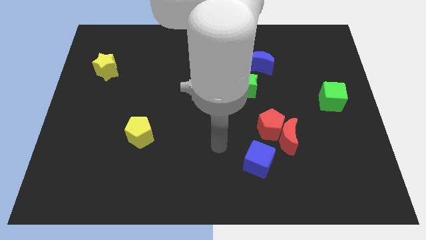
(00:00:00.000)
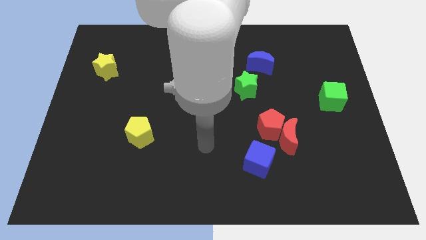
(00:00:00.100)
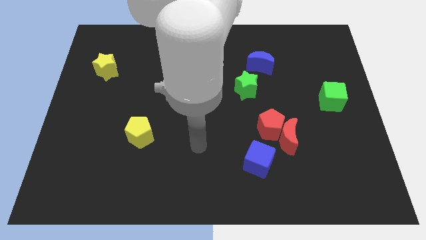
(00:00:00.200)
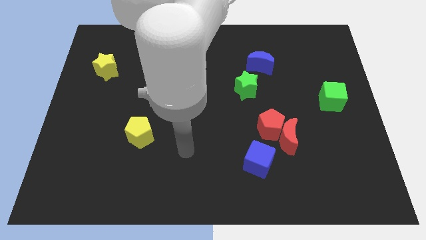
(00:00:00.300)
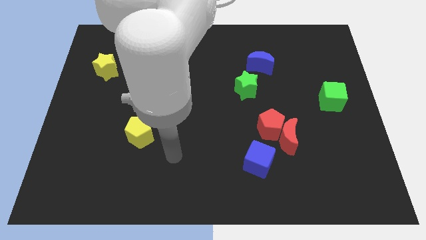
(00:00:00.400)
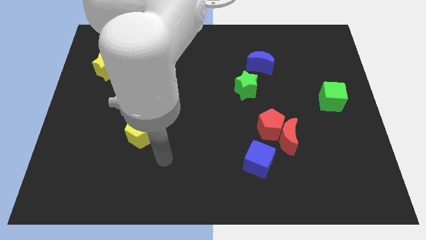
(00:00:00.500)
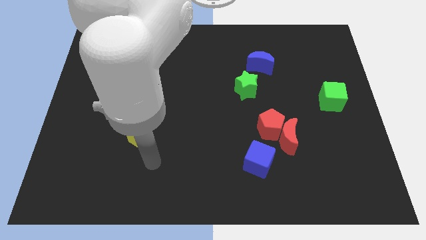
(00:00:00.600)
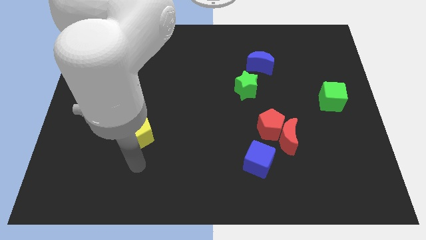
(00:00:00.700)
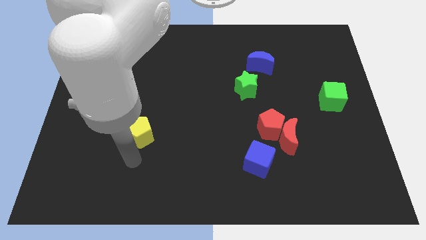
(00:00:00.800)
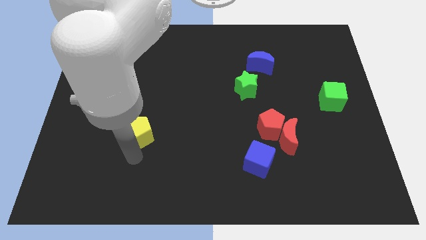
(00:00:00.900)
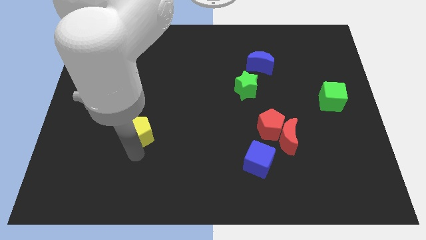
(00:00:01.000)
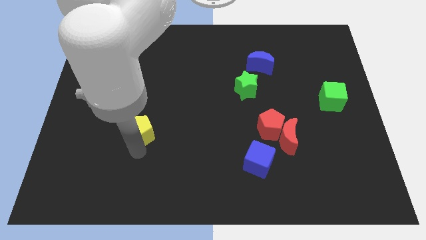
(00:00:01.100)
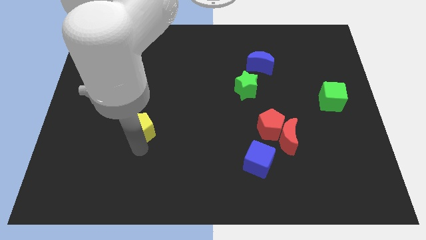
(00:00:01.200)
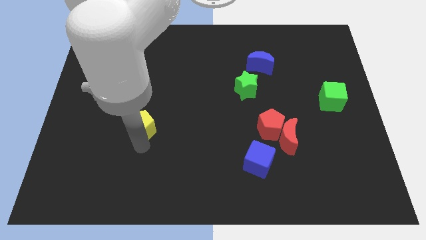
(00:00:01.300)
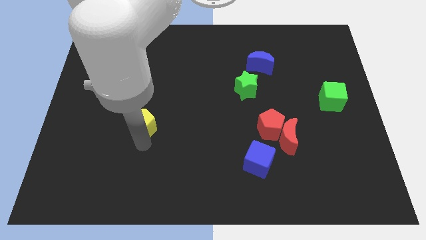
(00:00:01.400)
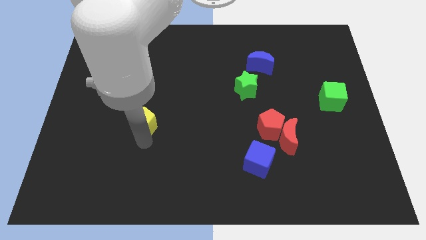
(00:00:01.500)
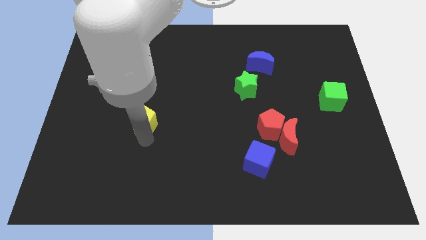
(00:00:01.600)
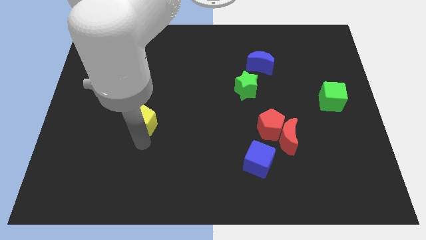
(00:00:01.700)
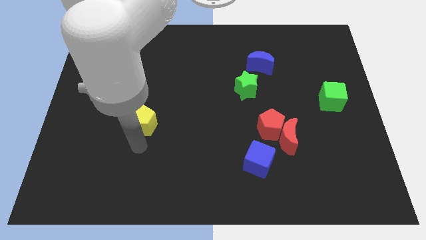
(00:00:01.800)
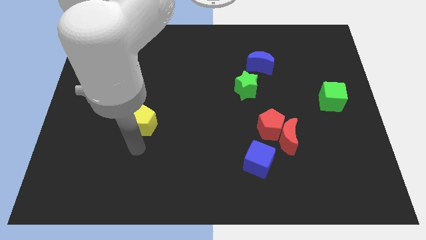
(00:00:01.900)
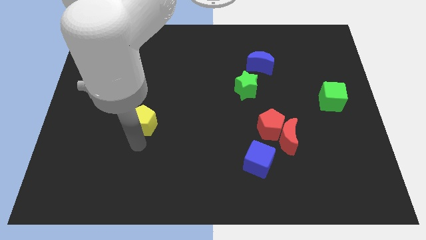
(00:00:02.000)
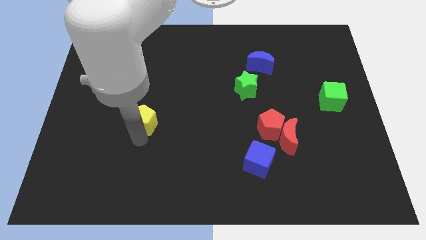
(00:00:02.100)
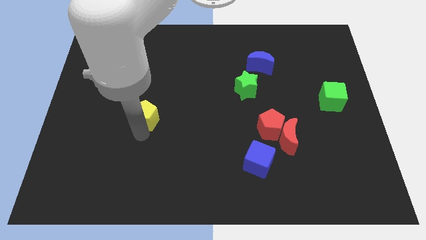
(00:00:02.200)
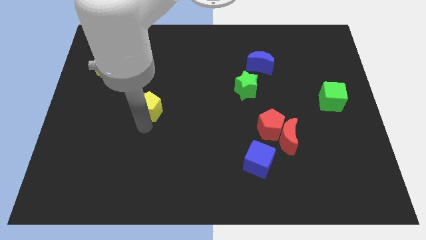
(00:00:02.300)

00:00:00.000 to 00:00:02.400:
push the yellow pentagon a little bit upwards

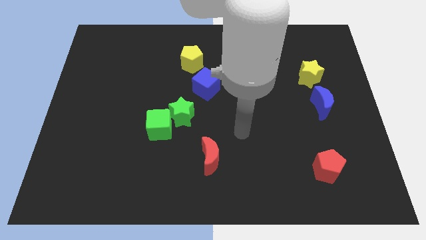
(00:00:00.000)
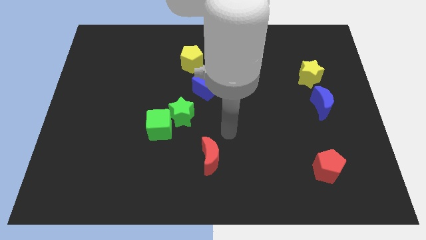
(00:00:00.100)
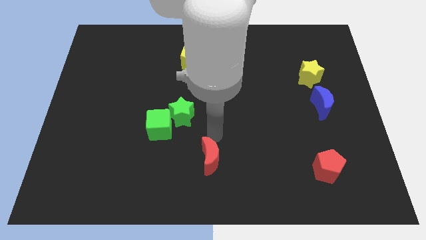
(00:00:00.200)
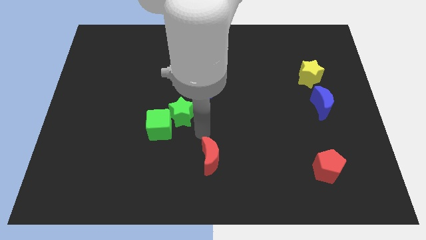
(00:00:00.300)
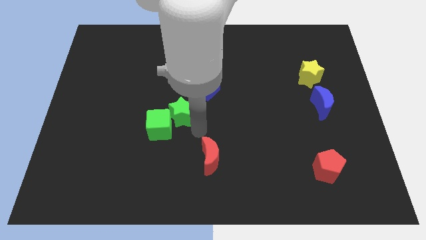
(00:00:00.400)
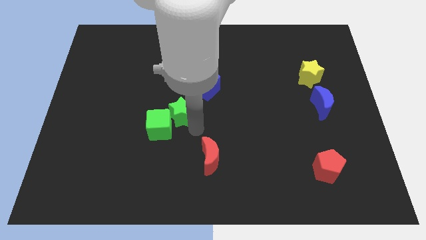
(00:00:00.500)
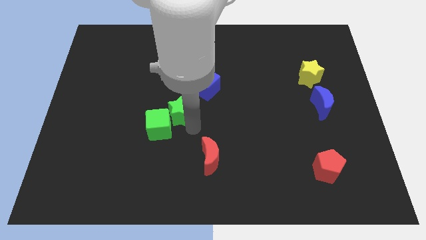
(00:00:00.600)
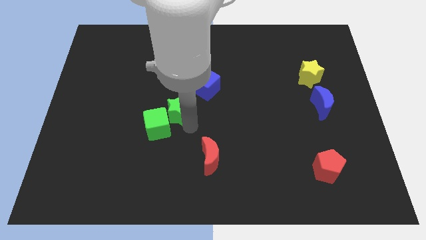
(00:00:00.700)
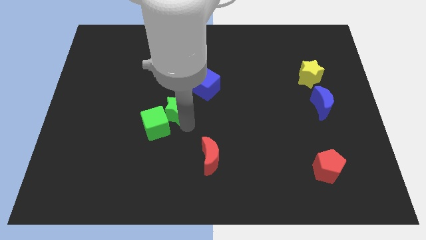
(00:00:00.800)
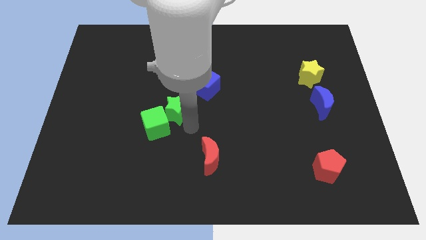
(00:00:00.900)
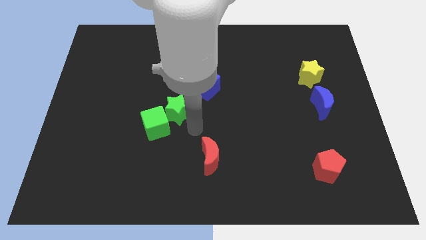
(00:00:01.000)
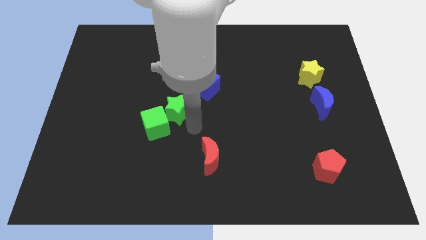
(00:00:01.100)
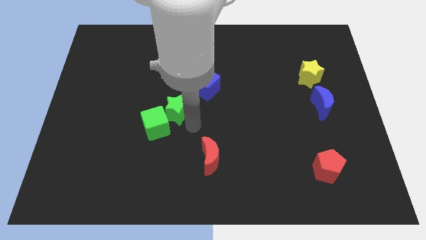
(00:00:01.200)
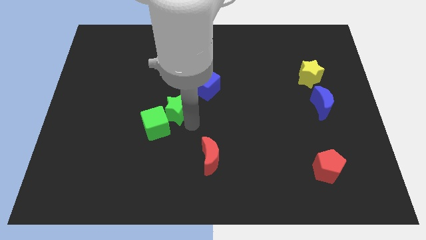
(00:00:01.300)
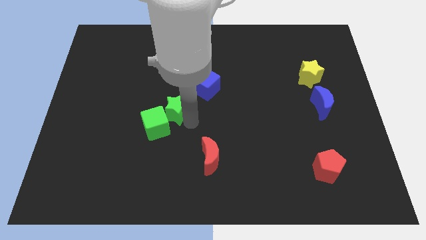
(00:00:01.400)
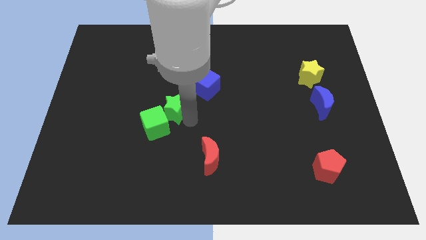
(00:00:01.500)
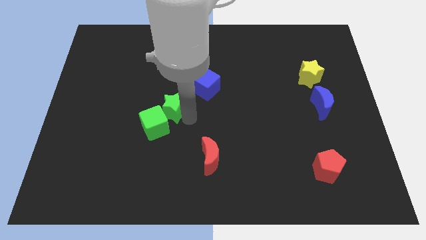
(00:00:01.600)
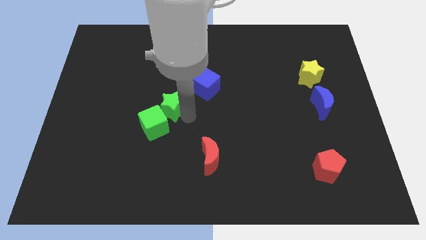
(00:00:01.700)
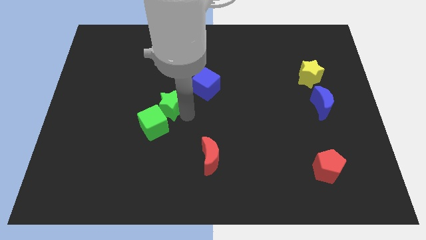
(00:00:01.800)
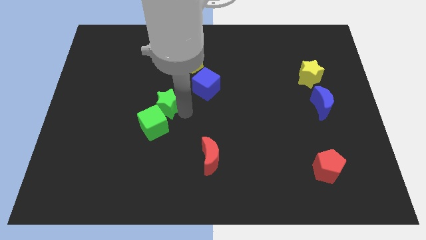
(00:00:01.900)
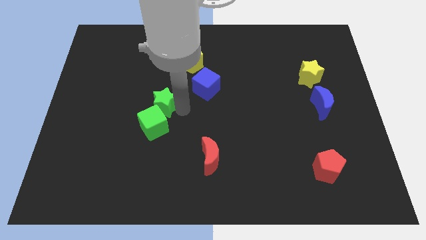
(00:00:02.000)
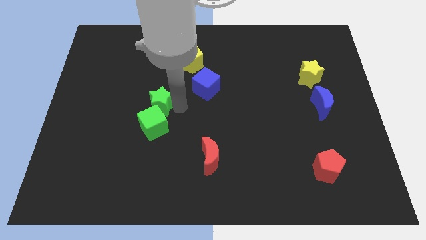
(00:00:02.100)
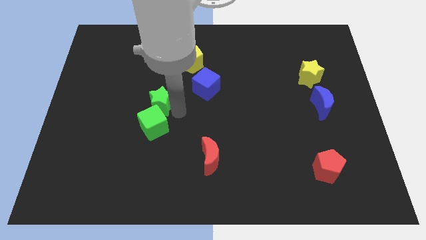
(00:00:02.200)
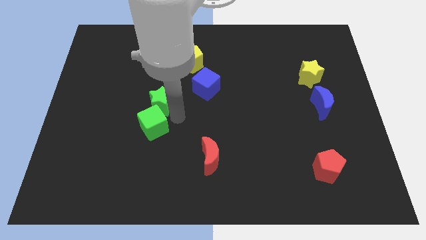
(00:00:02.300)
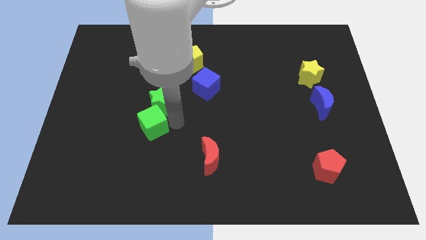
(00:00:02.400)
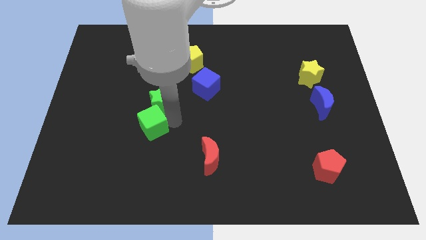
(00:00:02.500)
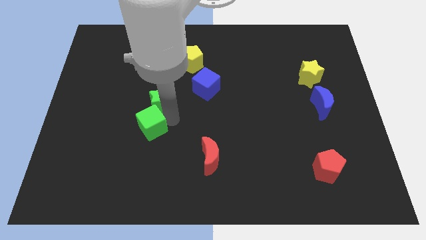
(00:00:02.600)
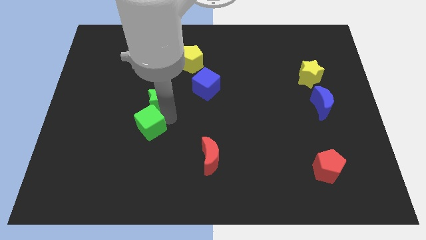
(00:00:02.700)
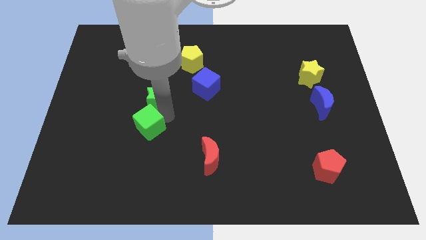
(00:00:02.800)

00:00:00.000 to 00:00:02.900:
move the green star slightly upwards and left diagonally

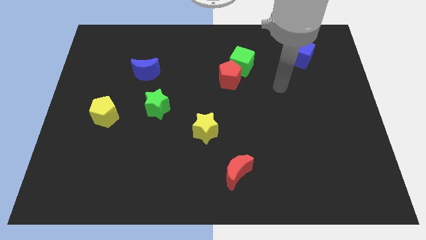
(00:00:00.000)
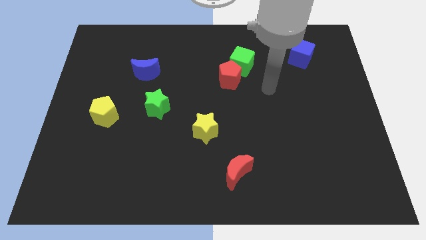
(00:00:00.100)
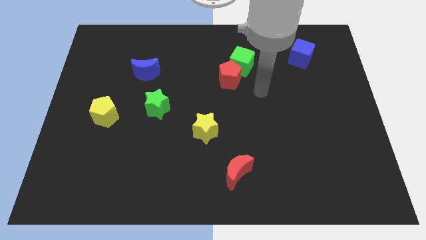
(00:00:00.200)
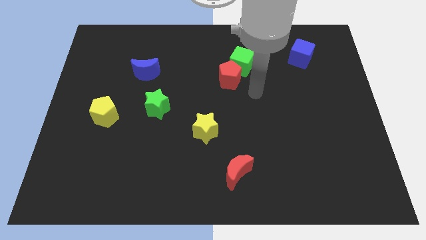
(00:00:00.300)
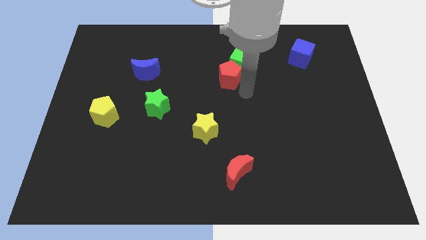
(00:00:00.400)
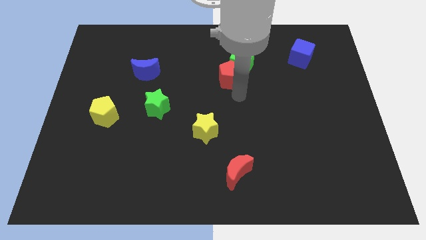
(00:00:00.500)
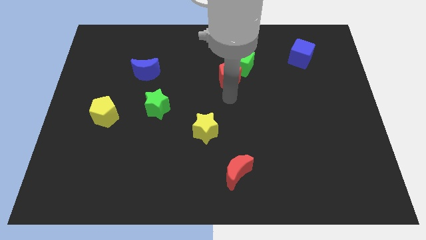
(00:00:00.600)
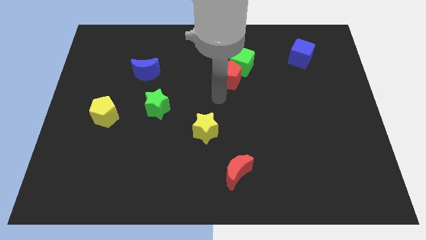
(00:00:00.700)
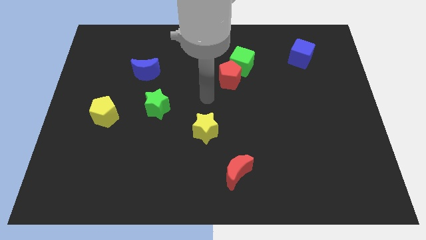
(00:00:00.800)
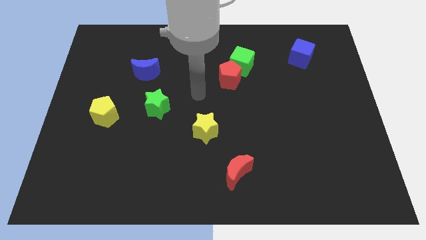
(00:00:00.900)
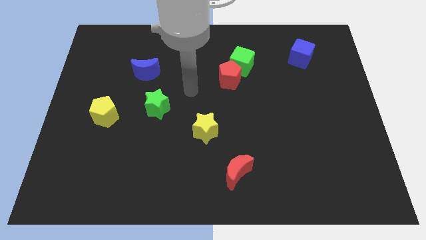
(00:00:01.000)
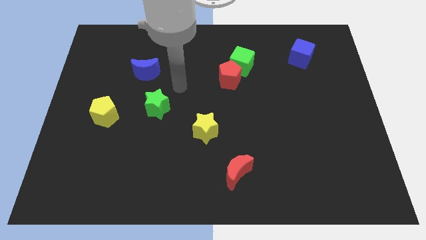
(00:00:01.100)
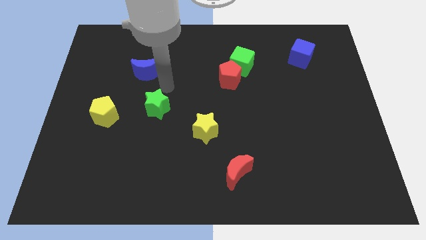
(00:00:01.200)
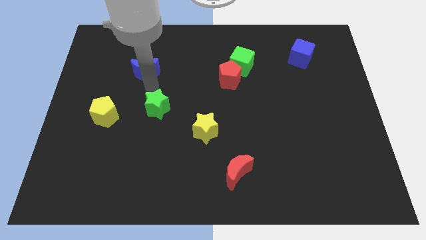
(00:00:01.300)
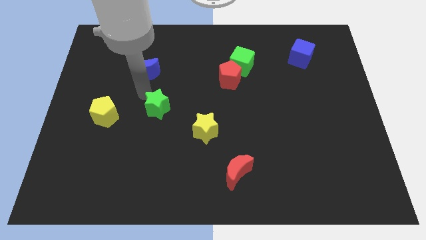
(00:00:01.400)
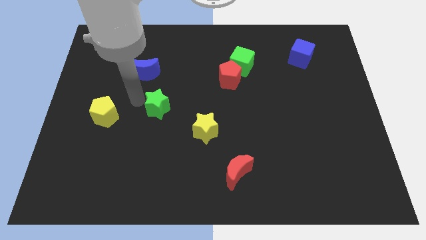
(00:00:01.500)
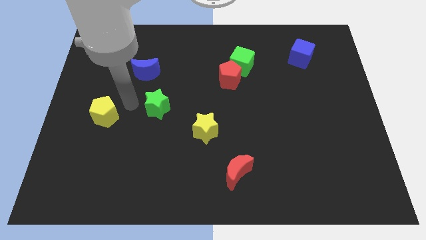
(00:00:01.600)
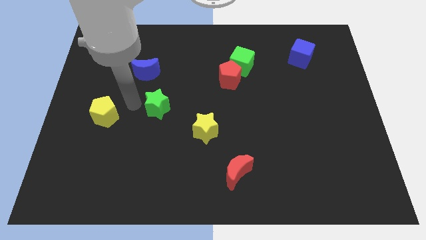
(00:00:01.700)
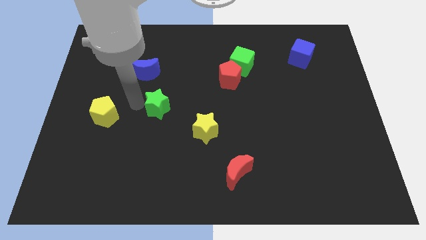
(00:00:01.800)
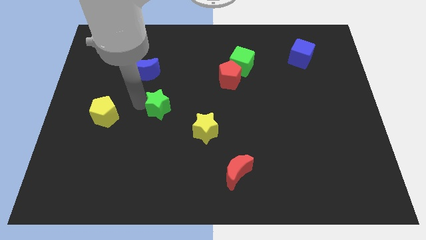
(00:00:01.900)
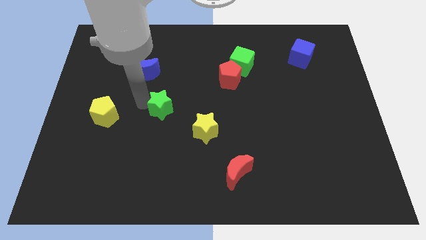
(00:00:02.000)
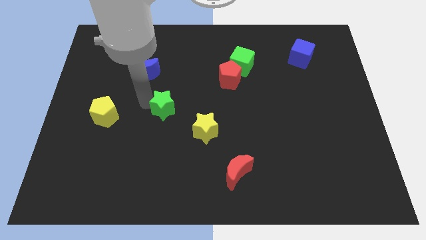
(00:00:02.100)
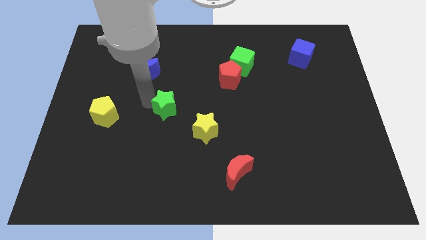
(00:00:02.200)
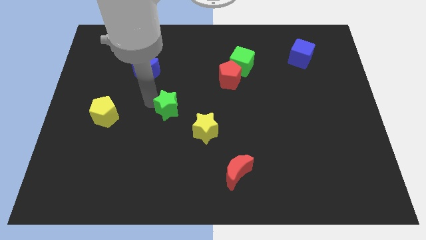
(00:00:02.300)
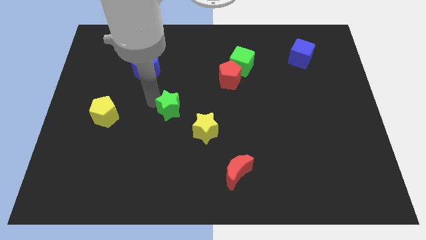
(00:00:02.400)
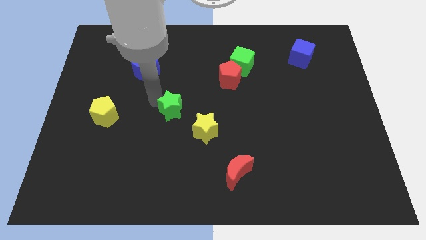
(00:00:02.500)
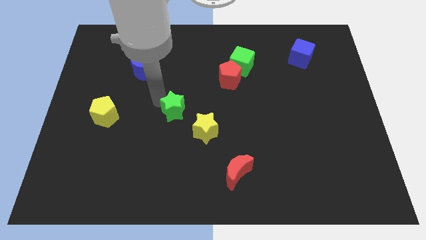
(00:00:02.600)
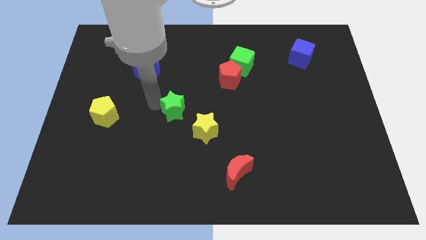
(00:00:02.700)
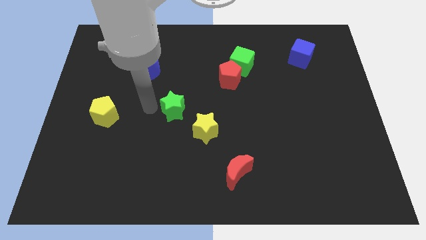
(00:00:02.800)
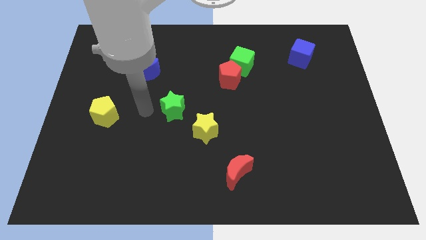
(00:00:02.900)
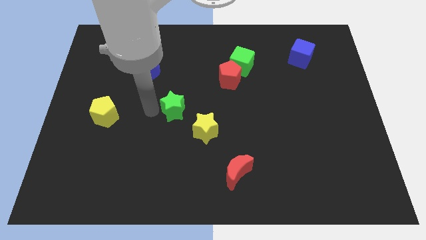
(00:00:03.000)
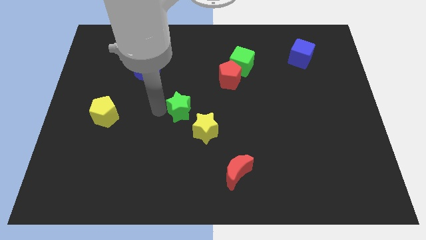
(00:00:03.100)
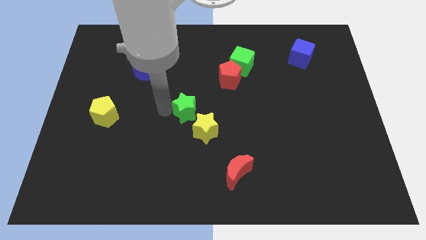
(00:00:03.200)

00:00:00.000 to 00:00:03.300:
slide the green star right somewhat
